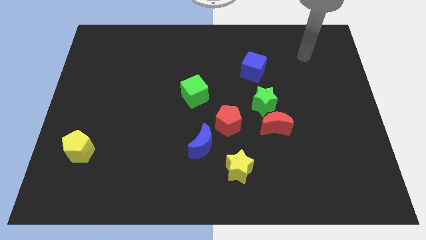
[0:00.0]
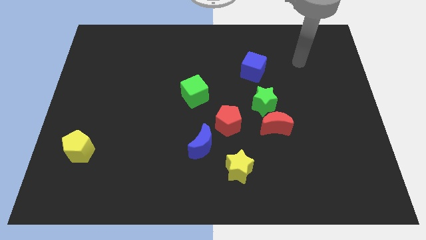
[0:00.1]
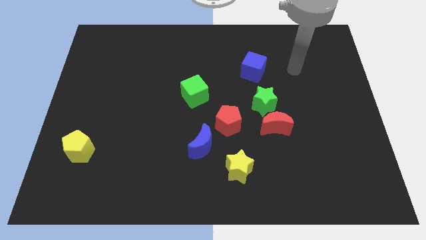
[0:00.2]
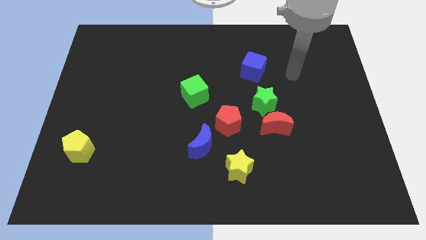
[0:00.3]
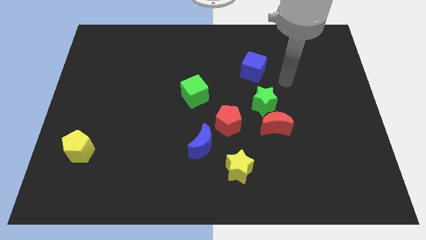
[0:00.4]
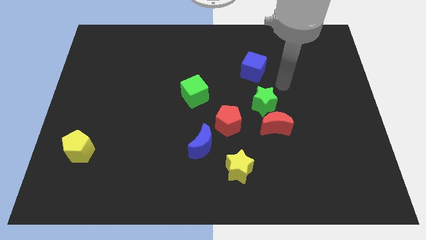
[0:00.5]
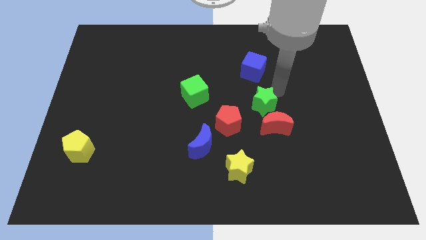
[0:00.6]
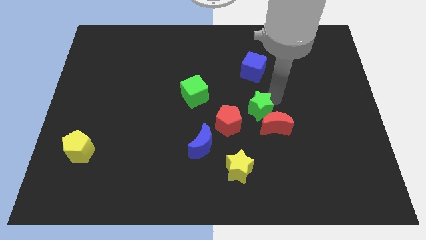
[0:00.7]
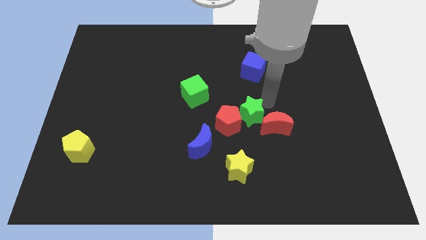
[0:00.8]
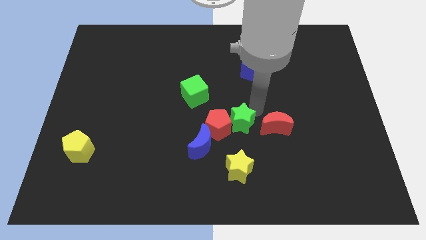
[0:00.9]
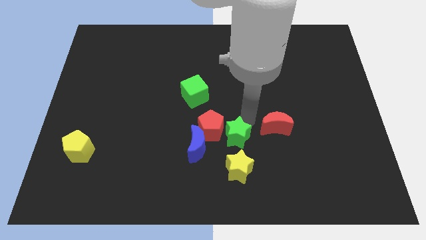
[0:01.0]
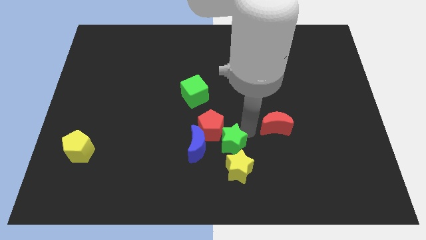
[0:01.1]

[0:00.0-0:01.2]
pull the red moon apart from the green star

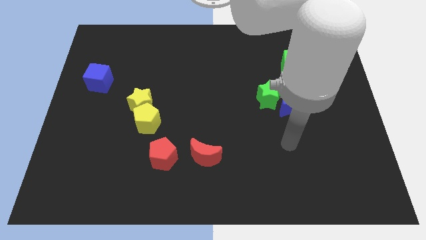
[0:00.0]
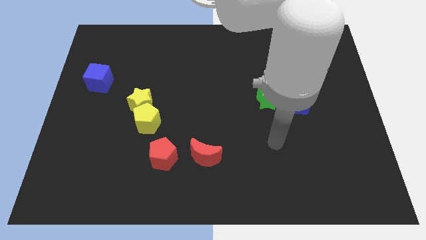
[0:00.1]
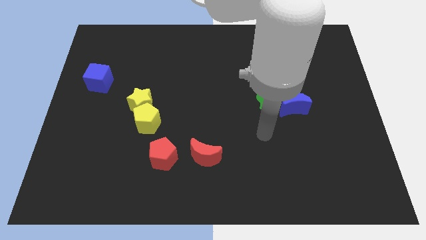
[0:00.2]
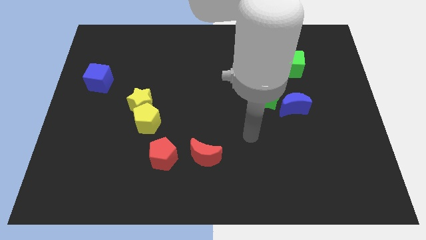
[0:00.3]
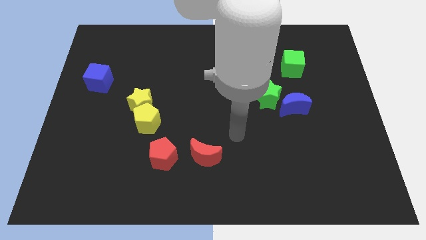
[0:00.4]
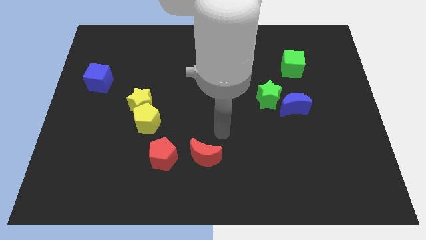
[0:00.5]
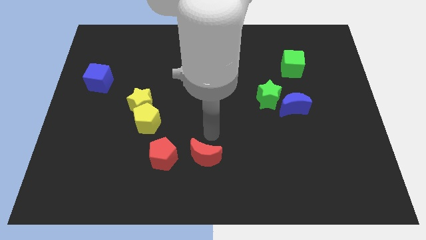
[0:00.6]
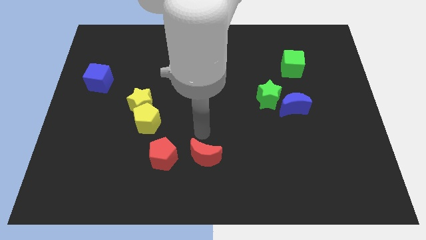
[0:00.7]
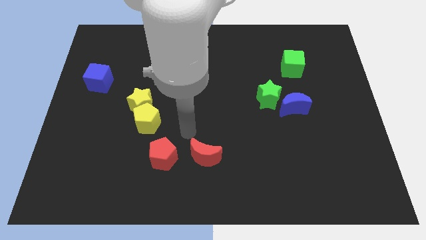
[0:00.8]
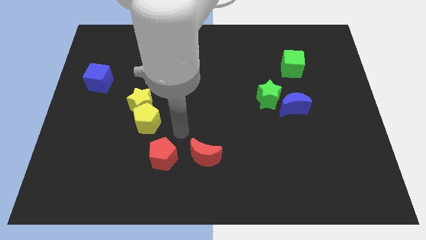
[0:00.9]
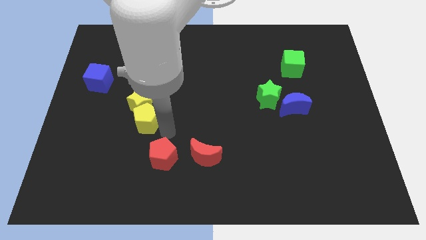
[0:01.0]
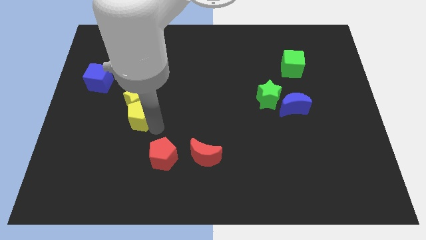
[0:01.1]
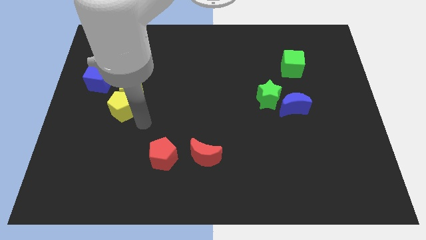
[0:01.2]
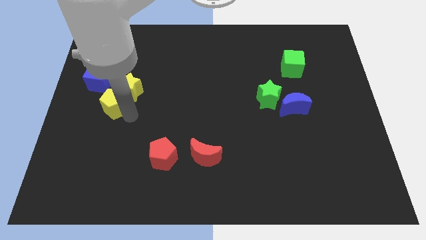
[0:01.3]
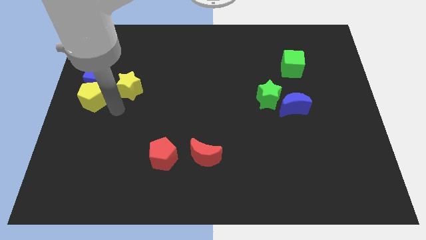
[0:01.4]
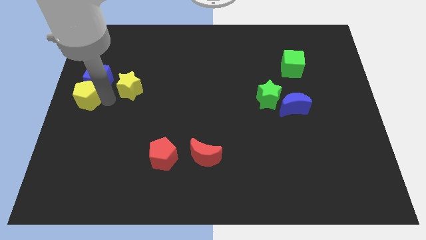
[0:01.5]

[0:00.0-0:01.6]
pull the yellow star apart from the yellow pentagon

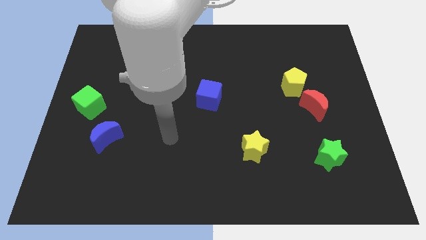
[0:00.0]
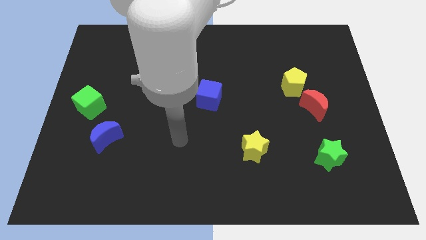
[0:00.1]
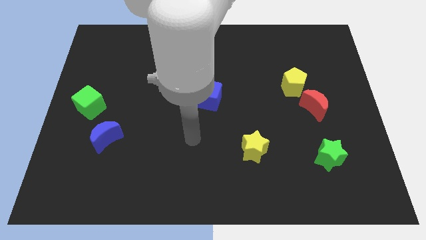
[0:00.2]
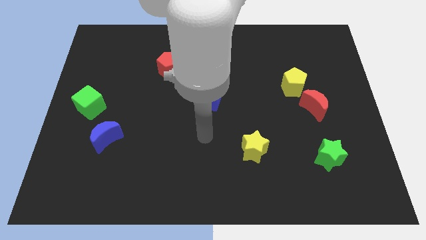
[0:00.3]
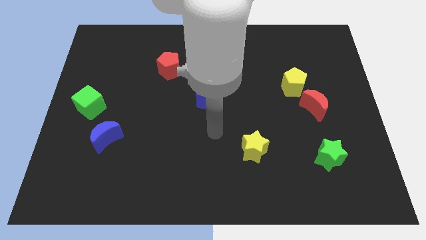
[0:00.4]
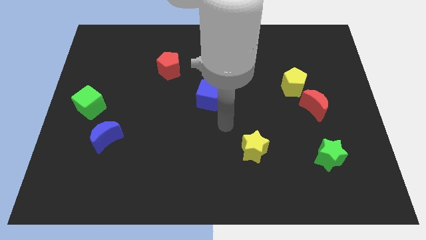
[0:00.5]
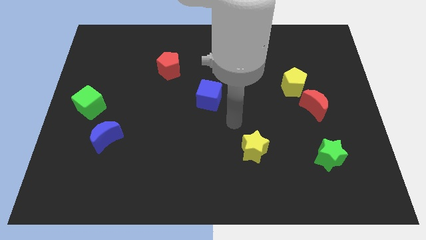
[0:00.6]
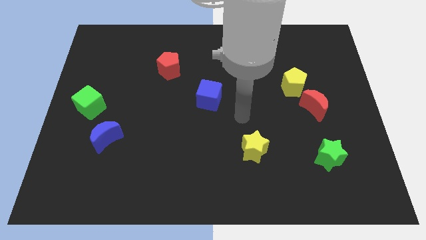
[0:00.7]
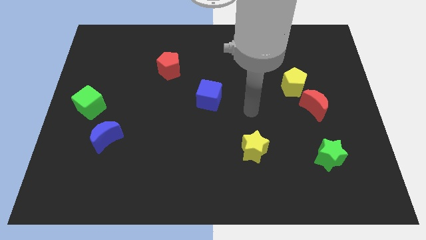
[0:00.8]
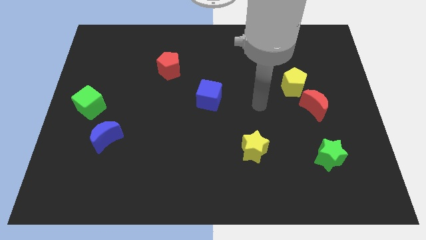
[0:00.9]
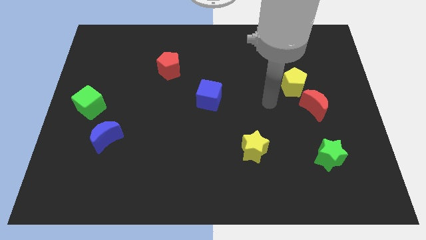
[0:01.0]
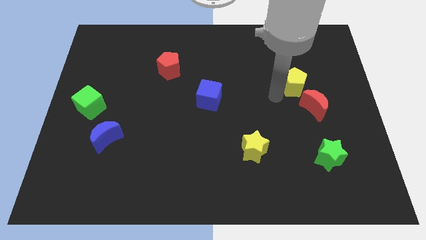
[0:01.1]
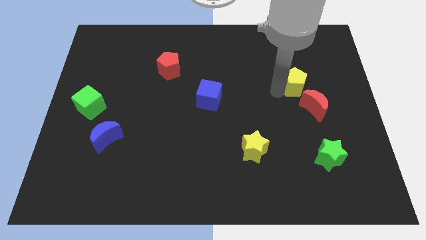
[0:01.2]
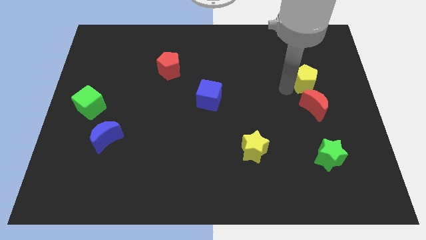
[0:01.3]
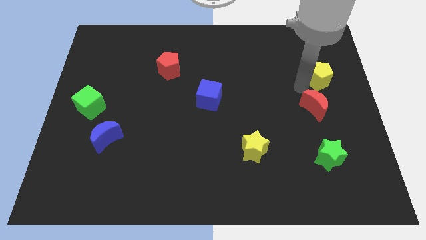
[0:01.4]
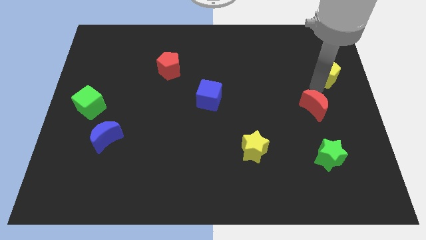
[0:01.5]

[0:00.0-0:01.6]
move the red moon away from the yellow pentagon

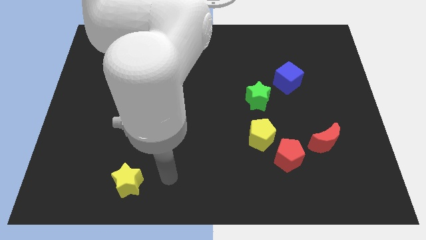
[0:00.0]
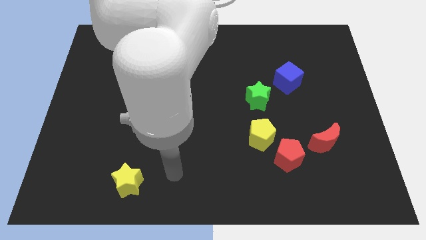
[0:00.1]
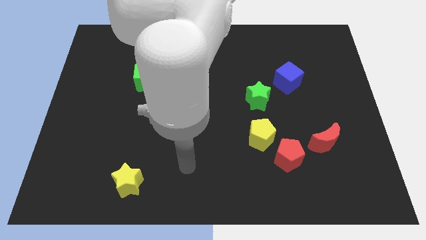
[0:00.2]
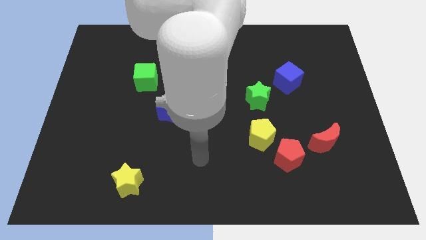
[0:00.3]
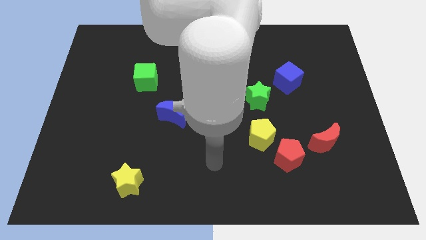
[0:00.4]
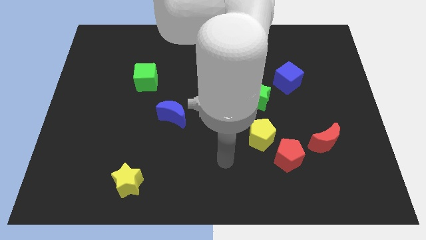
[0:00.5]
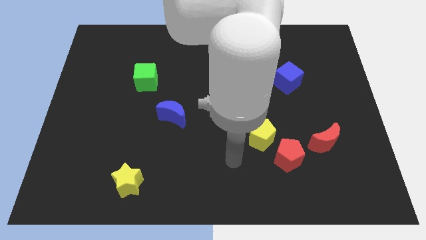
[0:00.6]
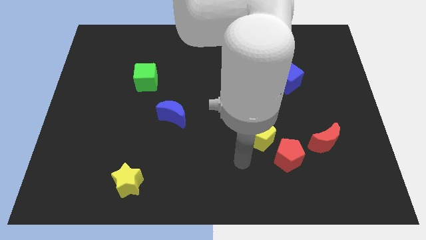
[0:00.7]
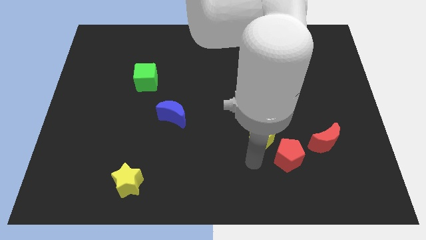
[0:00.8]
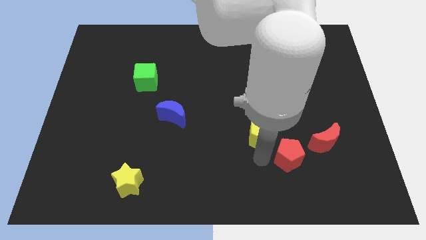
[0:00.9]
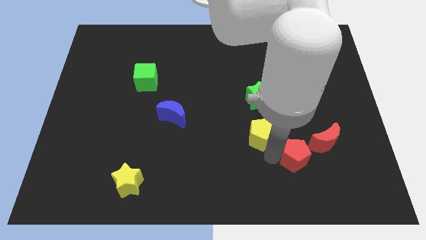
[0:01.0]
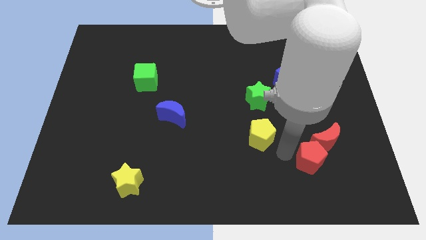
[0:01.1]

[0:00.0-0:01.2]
pull the yellow pentagon apart from the red pentagon

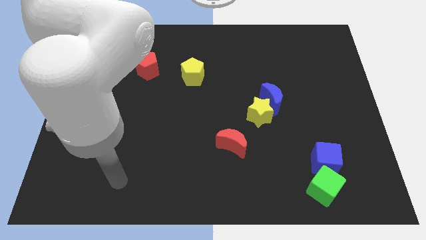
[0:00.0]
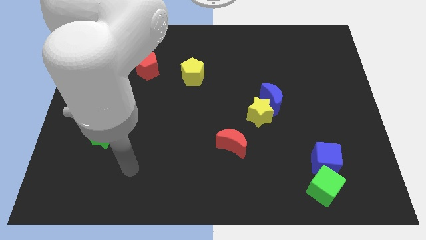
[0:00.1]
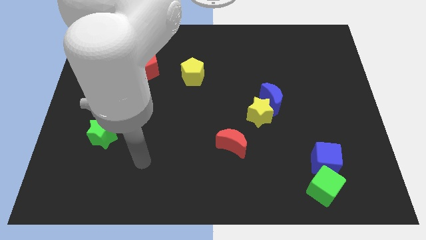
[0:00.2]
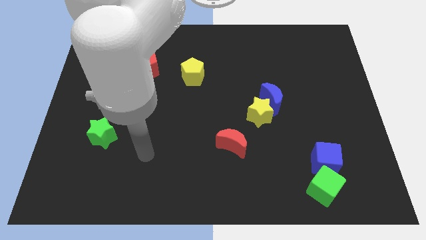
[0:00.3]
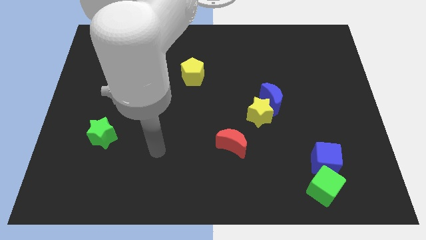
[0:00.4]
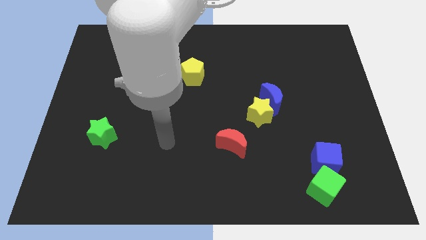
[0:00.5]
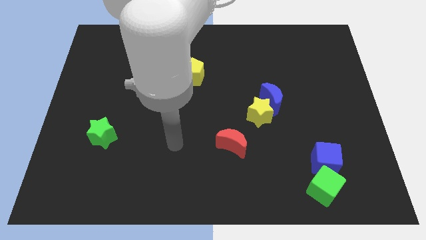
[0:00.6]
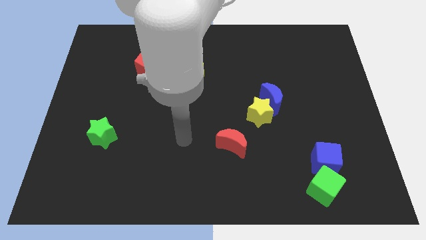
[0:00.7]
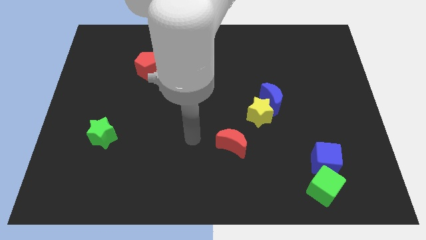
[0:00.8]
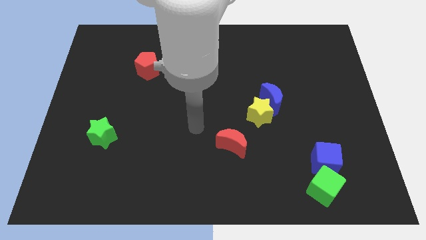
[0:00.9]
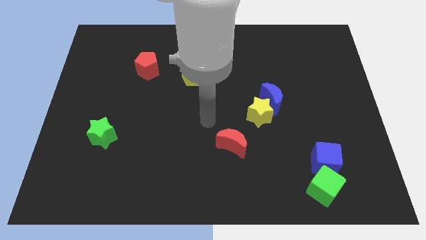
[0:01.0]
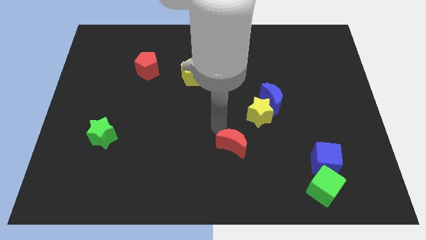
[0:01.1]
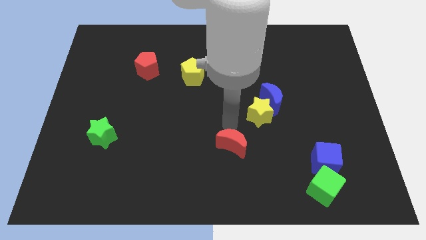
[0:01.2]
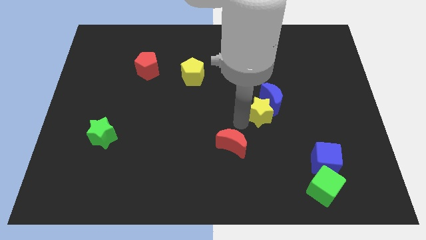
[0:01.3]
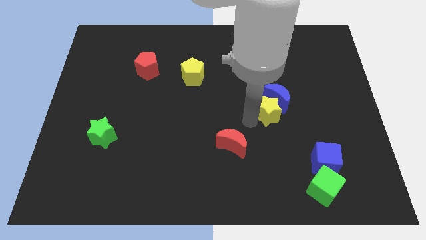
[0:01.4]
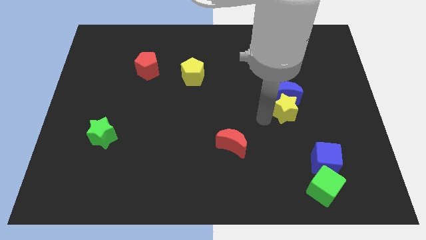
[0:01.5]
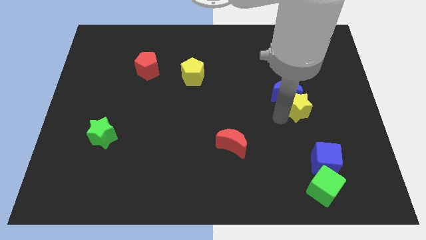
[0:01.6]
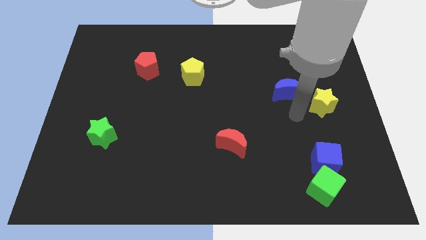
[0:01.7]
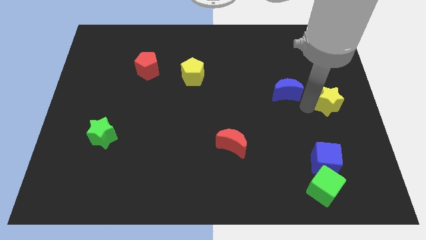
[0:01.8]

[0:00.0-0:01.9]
move the blue moon away from the yellow star

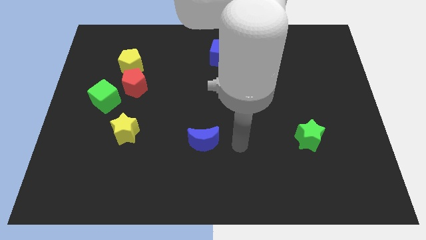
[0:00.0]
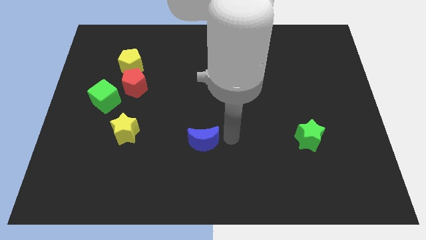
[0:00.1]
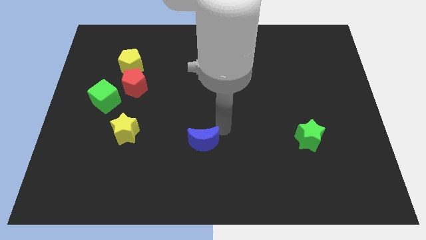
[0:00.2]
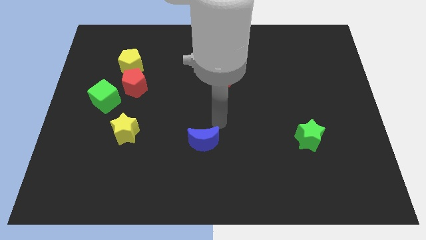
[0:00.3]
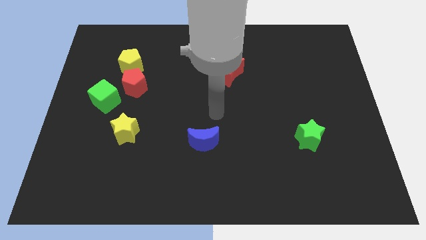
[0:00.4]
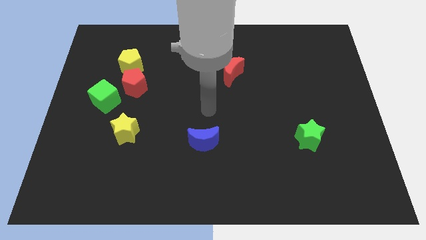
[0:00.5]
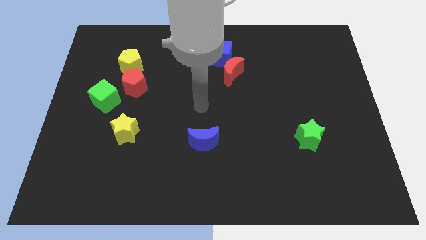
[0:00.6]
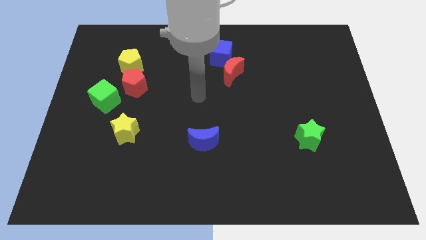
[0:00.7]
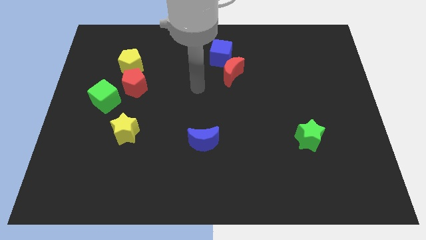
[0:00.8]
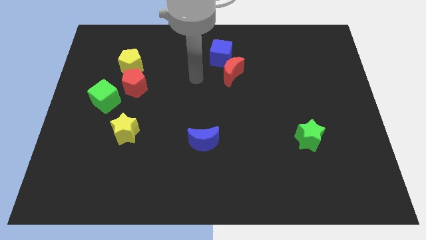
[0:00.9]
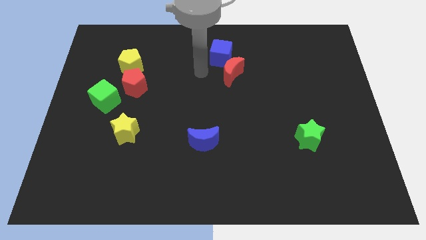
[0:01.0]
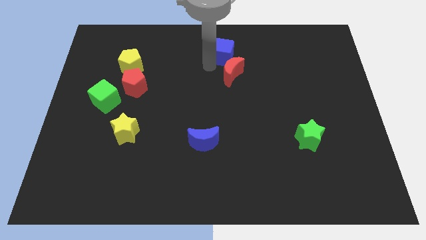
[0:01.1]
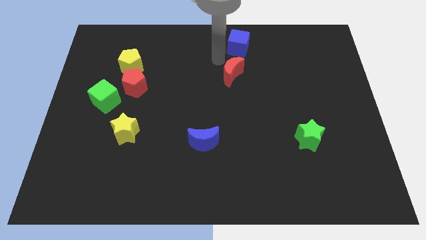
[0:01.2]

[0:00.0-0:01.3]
pull the red moon apart from the blue cube

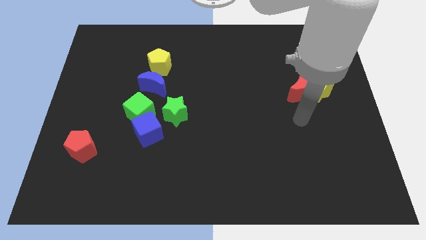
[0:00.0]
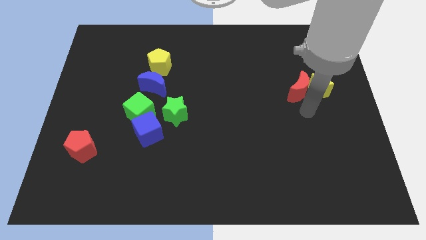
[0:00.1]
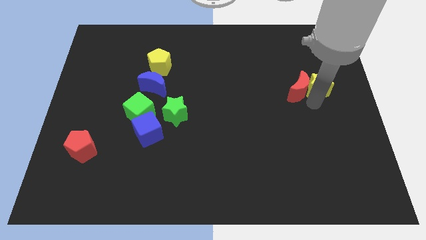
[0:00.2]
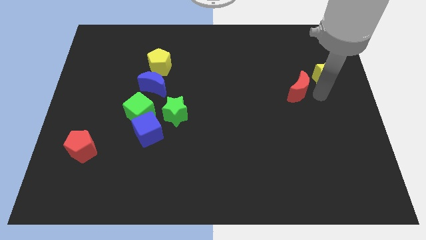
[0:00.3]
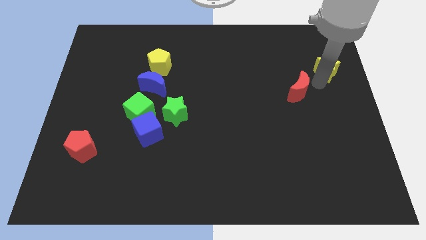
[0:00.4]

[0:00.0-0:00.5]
move the red moon away from the yellow star
